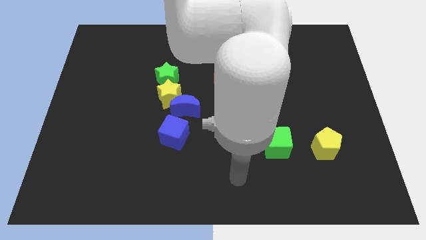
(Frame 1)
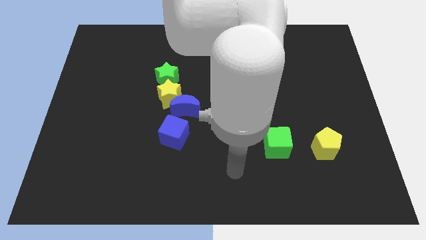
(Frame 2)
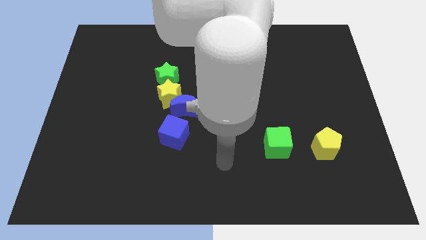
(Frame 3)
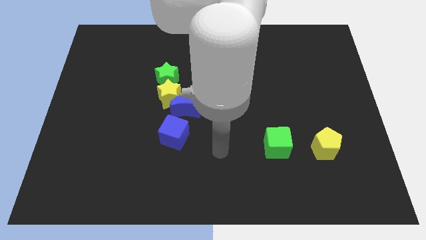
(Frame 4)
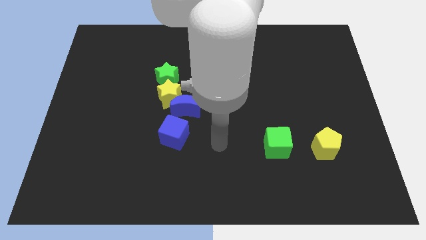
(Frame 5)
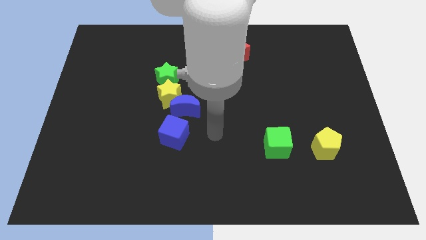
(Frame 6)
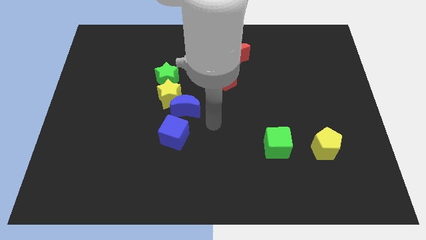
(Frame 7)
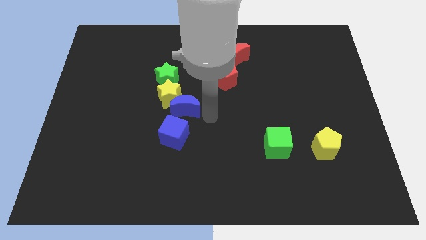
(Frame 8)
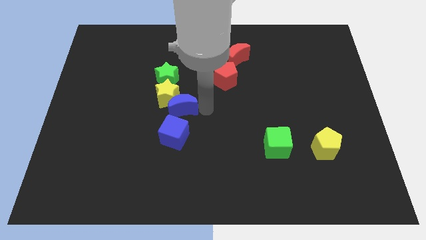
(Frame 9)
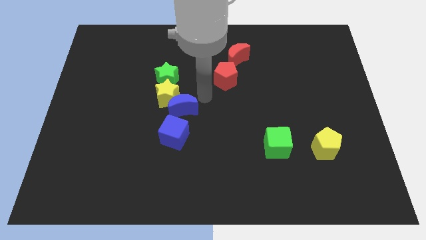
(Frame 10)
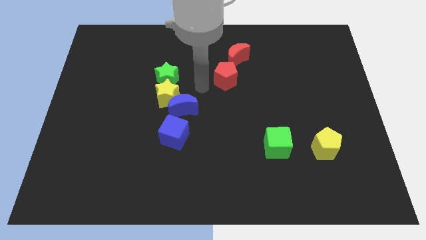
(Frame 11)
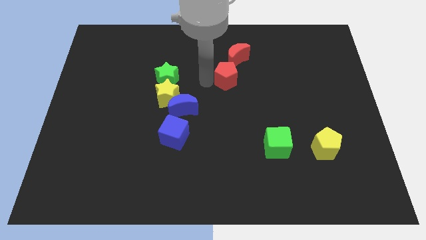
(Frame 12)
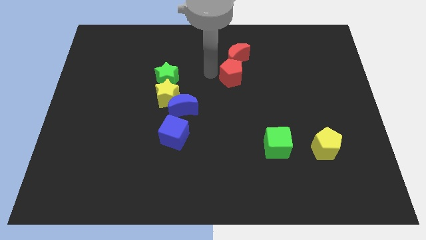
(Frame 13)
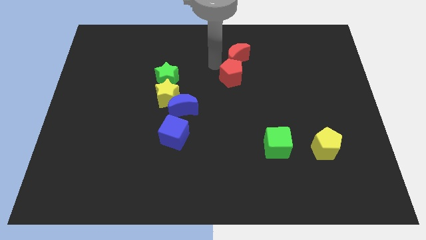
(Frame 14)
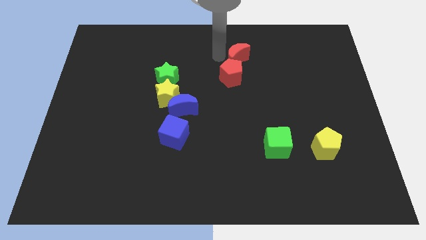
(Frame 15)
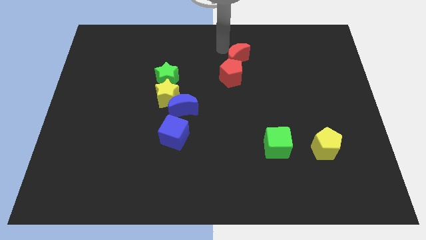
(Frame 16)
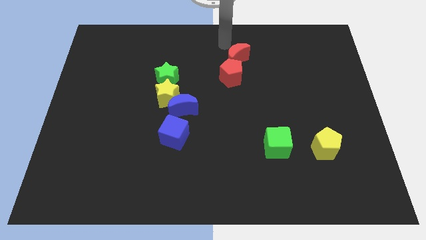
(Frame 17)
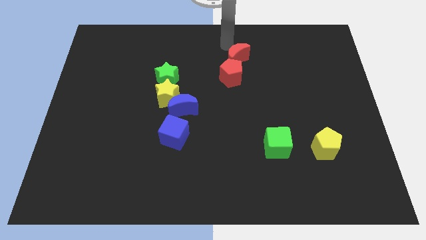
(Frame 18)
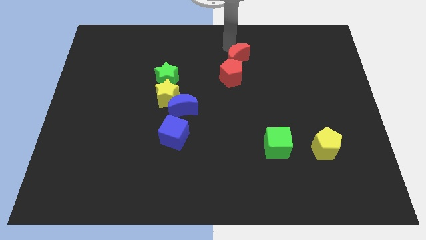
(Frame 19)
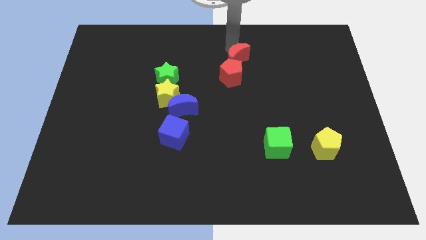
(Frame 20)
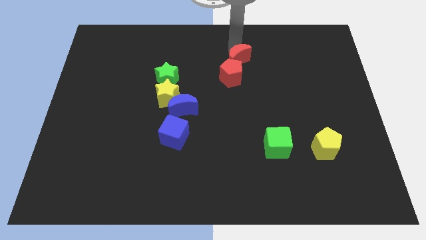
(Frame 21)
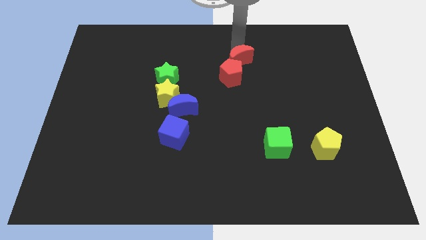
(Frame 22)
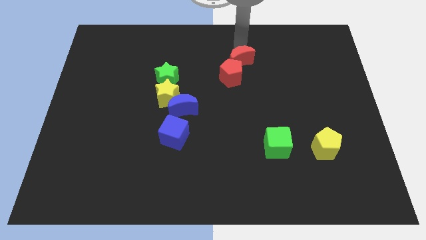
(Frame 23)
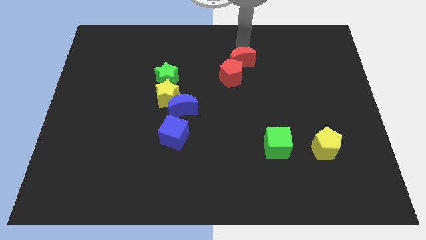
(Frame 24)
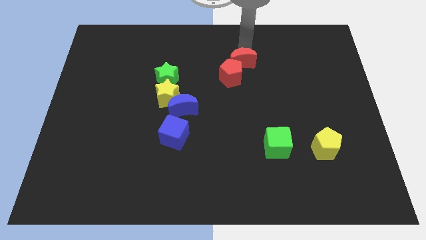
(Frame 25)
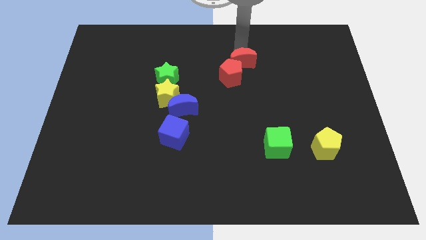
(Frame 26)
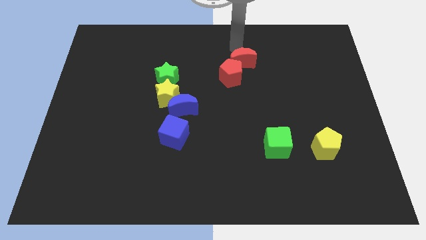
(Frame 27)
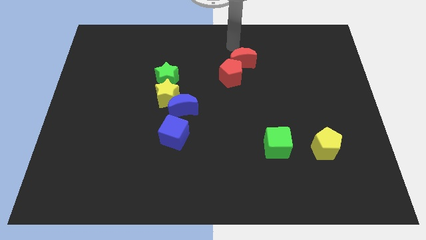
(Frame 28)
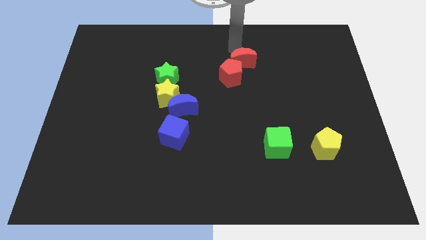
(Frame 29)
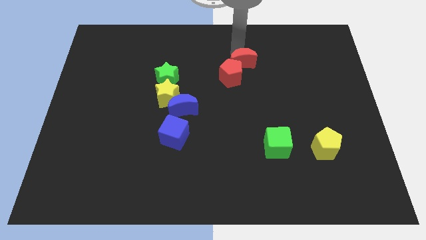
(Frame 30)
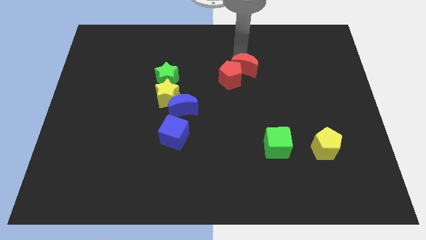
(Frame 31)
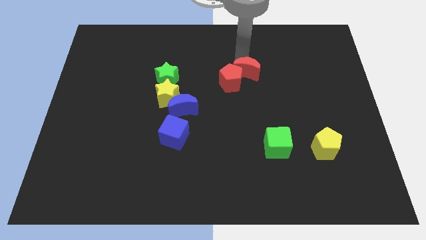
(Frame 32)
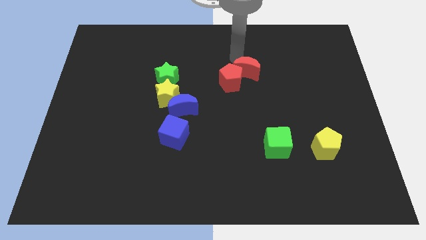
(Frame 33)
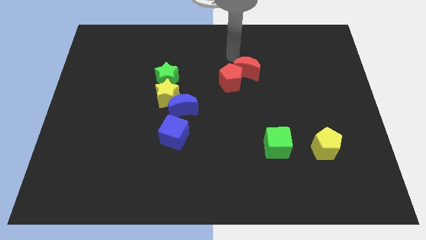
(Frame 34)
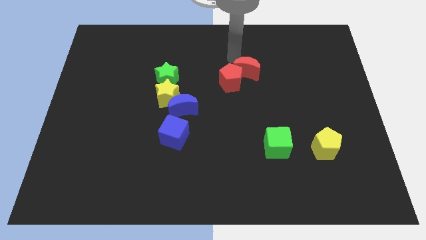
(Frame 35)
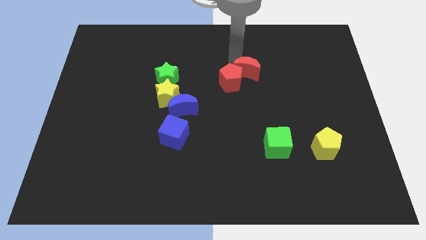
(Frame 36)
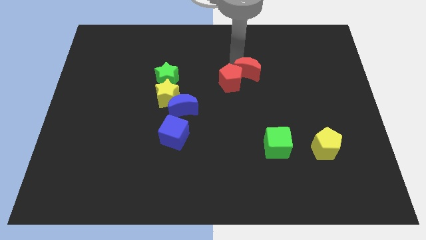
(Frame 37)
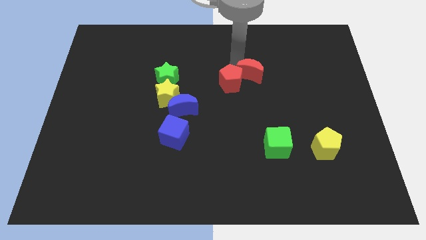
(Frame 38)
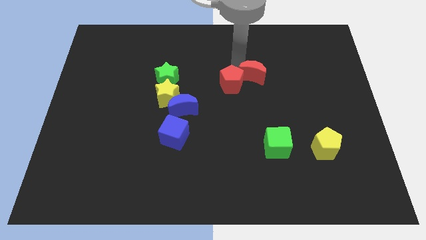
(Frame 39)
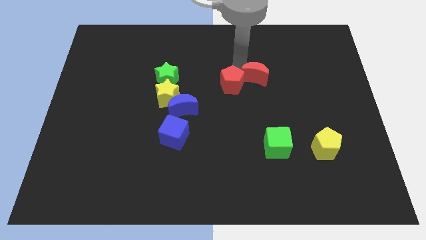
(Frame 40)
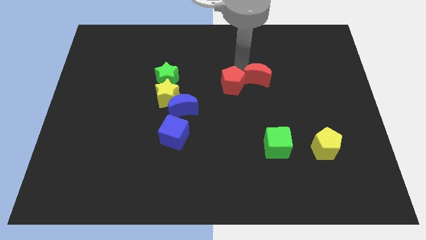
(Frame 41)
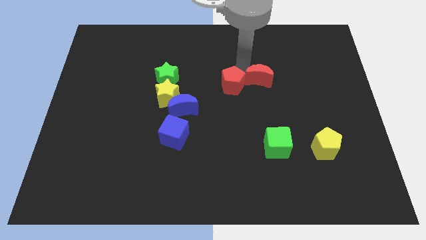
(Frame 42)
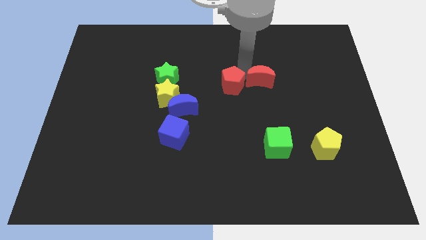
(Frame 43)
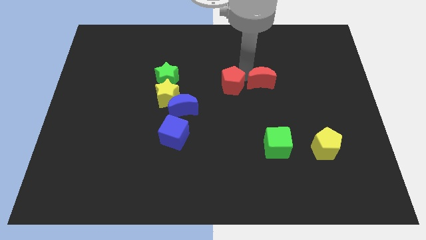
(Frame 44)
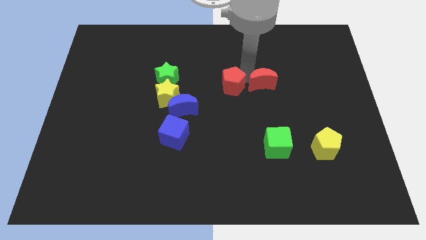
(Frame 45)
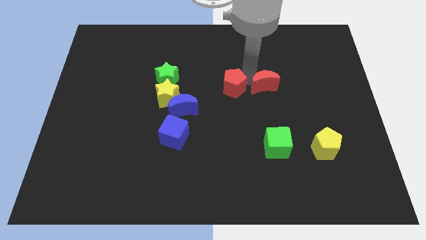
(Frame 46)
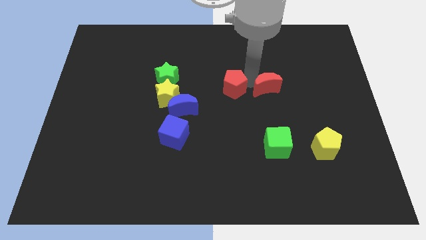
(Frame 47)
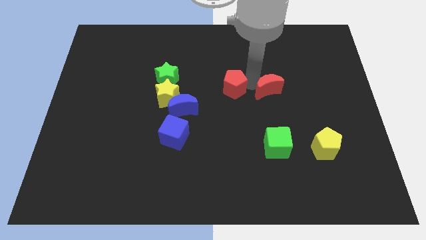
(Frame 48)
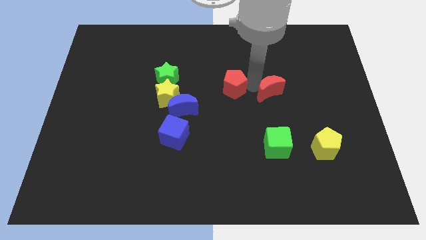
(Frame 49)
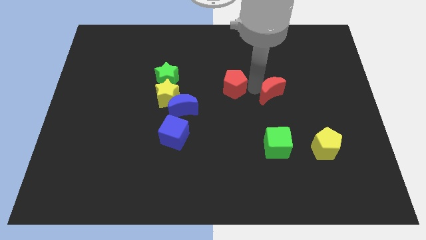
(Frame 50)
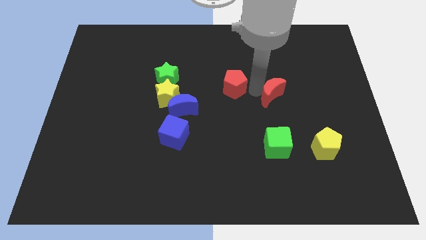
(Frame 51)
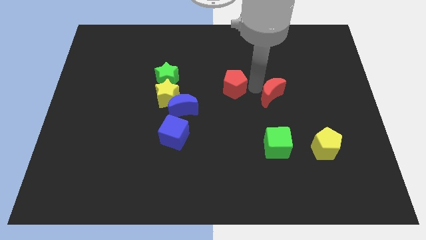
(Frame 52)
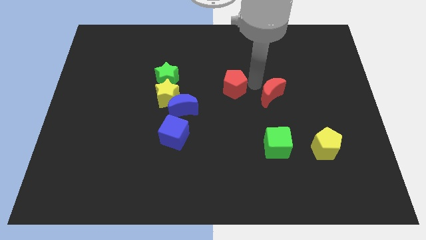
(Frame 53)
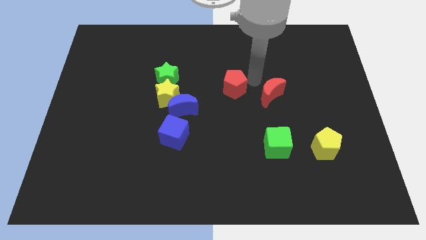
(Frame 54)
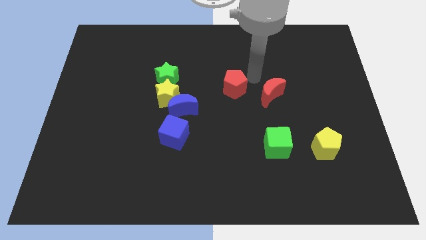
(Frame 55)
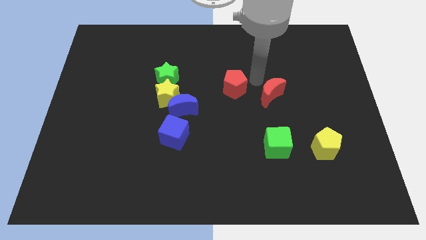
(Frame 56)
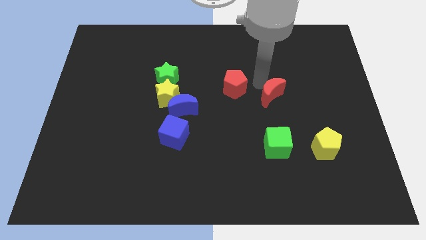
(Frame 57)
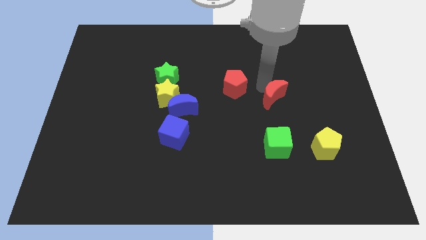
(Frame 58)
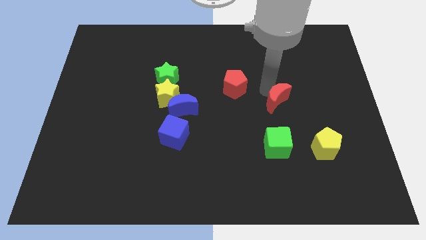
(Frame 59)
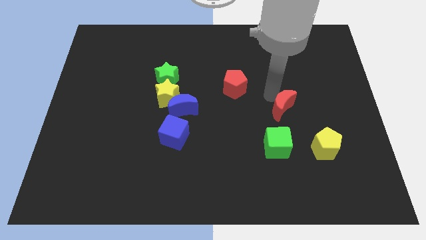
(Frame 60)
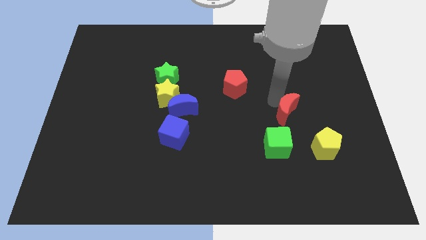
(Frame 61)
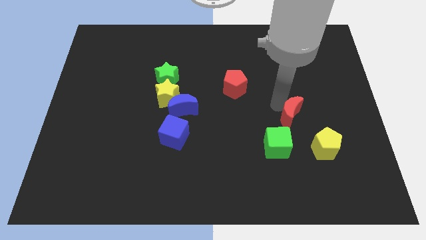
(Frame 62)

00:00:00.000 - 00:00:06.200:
move the red moon downwards and to the right

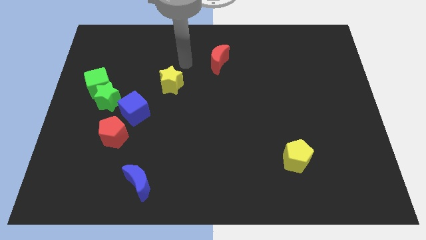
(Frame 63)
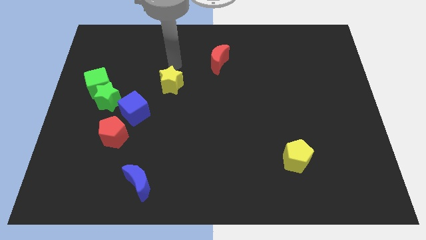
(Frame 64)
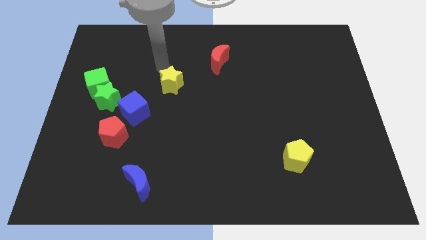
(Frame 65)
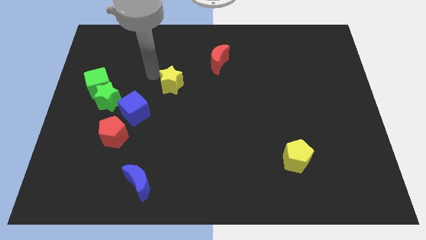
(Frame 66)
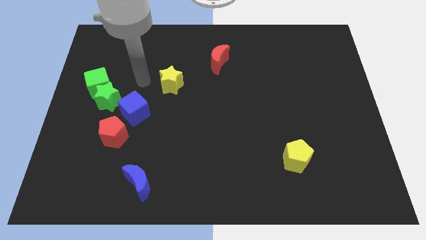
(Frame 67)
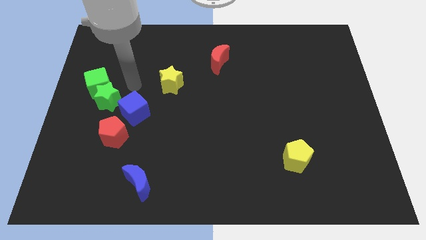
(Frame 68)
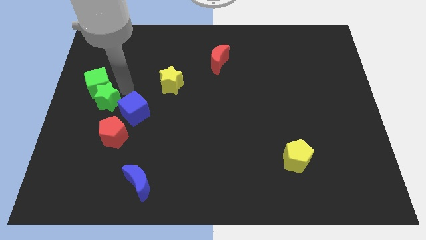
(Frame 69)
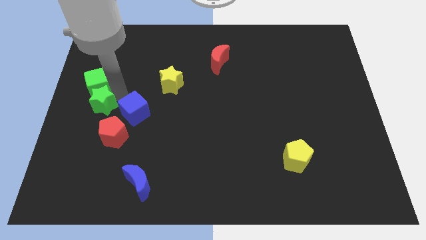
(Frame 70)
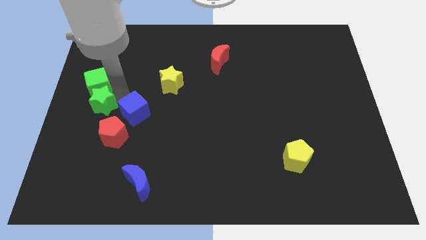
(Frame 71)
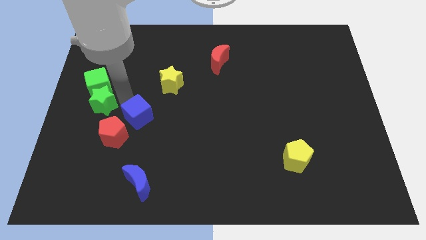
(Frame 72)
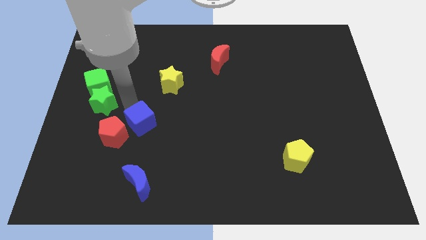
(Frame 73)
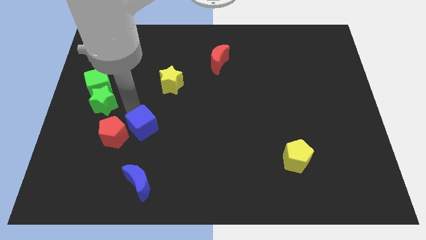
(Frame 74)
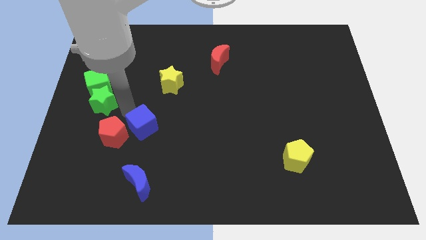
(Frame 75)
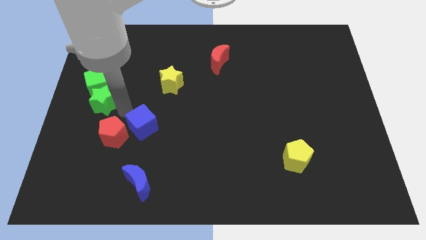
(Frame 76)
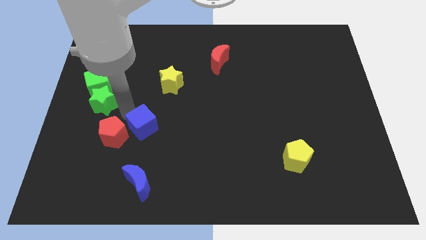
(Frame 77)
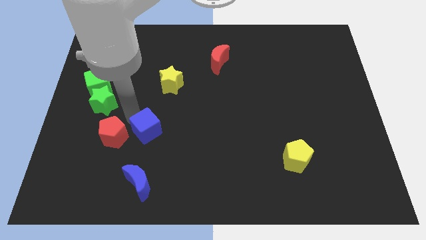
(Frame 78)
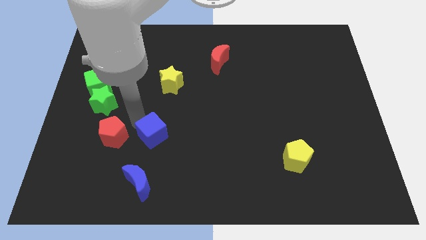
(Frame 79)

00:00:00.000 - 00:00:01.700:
move the blue cube downwards and to the right a bit
